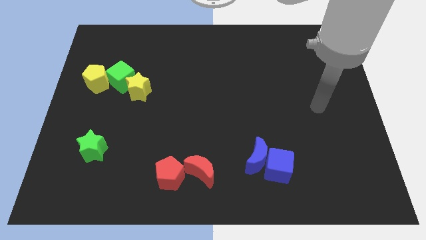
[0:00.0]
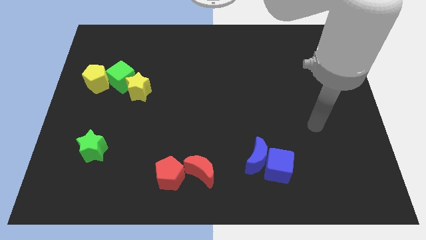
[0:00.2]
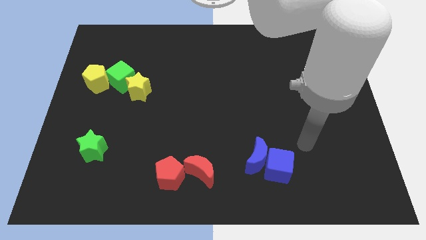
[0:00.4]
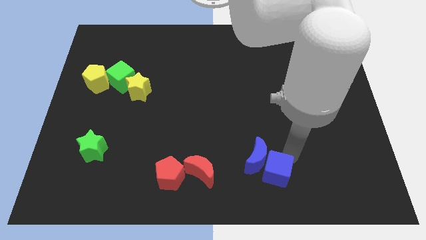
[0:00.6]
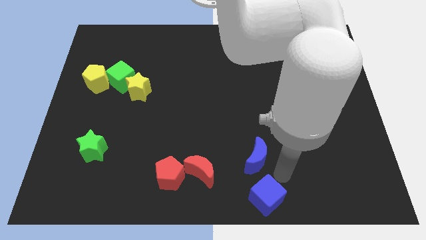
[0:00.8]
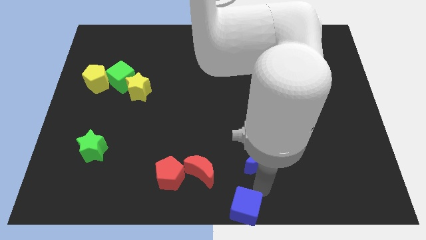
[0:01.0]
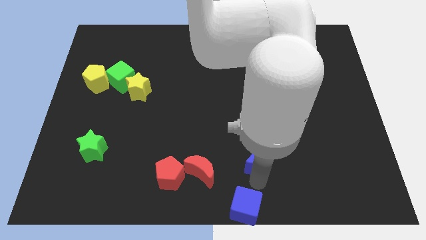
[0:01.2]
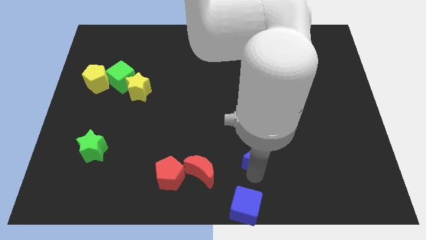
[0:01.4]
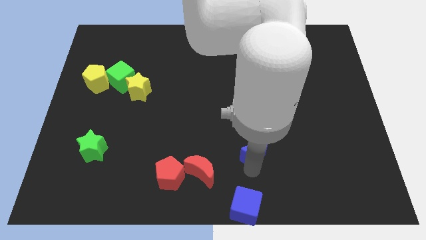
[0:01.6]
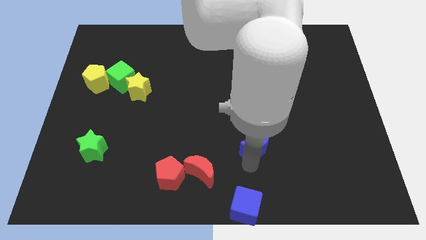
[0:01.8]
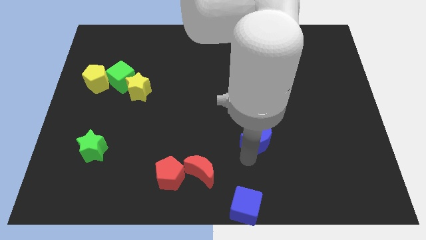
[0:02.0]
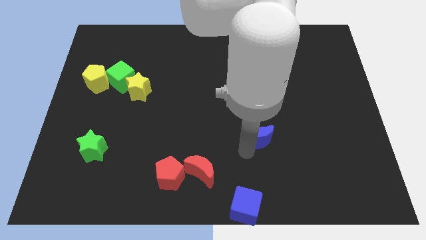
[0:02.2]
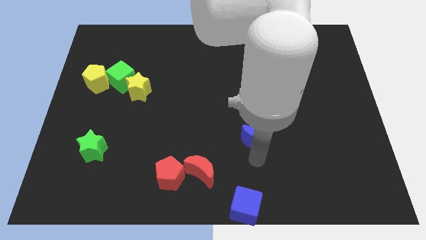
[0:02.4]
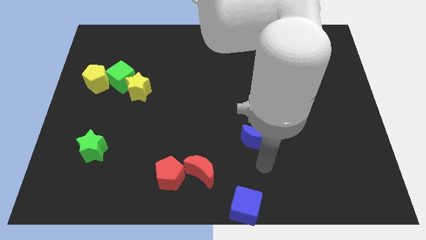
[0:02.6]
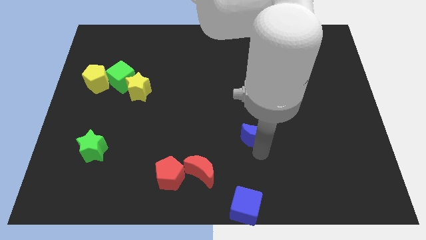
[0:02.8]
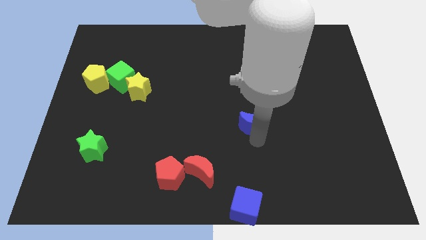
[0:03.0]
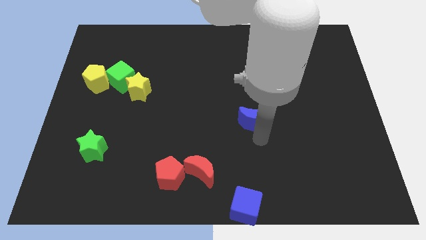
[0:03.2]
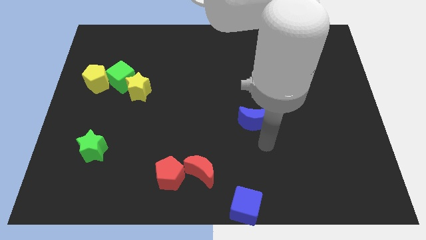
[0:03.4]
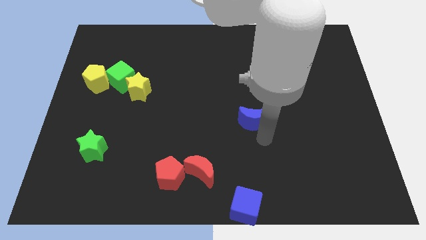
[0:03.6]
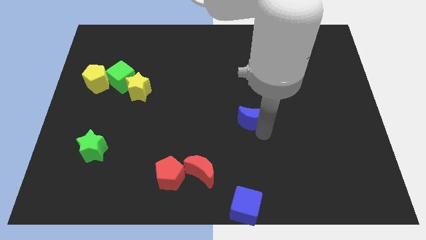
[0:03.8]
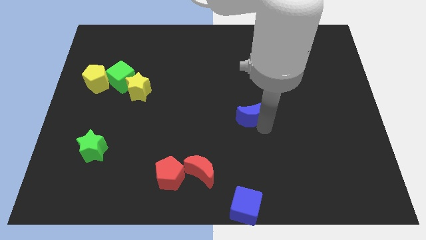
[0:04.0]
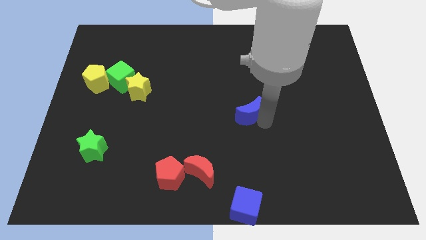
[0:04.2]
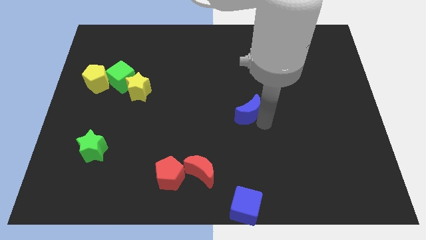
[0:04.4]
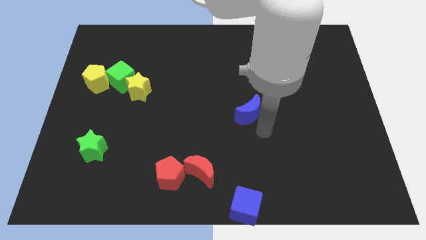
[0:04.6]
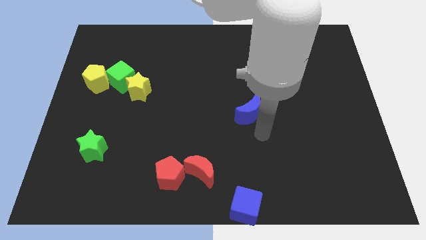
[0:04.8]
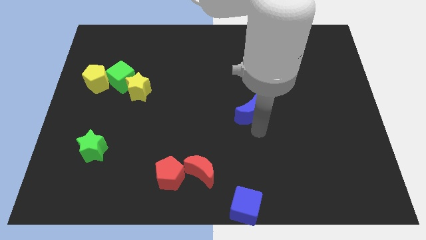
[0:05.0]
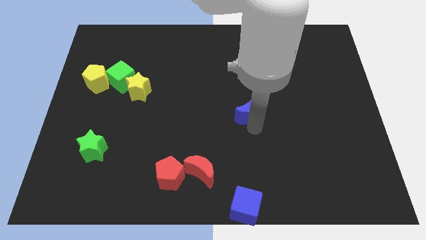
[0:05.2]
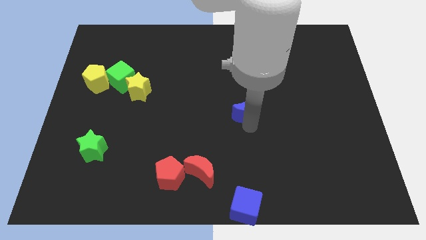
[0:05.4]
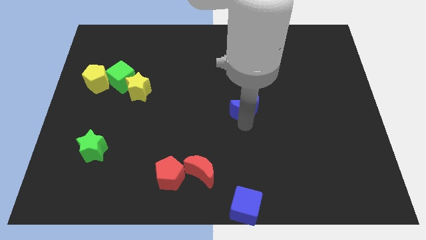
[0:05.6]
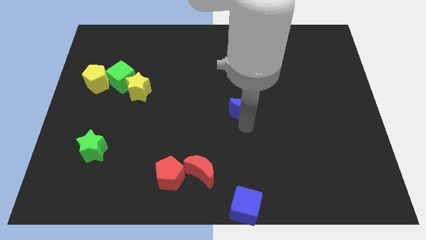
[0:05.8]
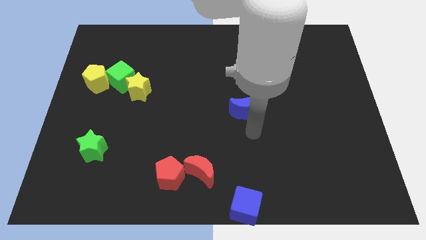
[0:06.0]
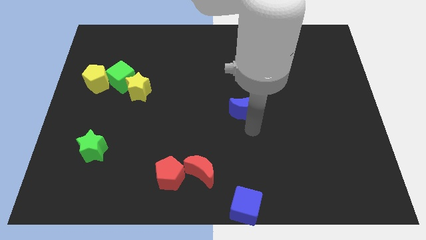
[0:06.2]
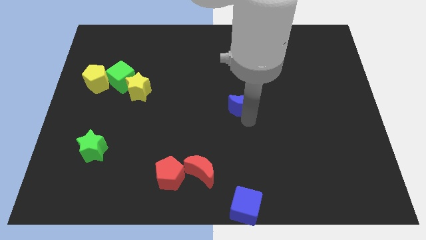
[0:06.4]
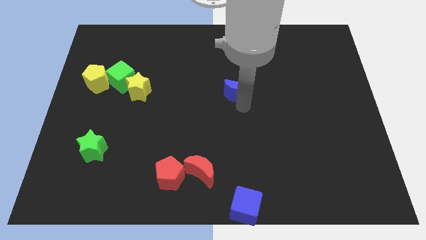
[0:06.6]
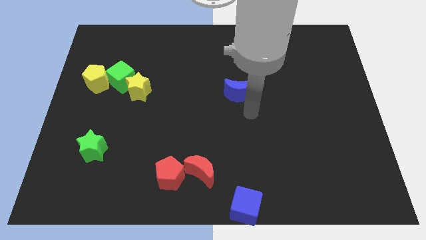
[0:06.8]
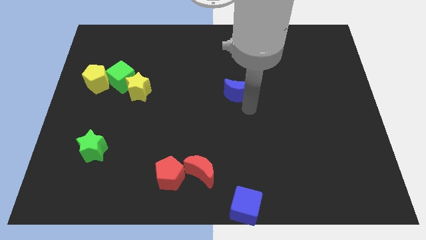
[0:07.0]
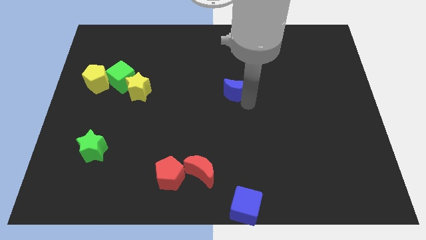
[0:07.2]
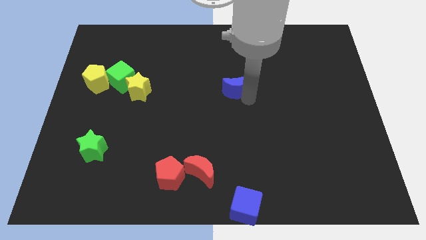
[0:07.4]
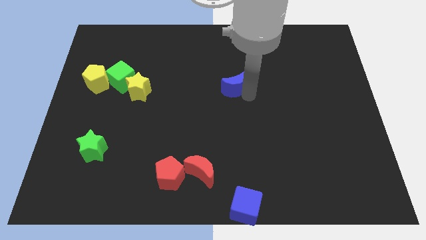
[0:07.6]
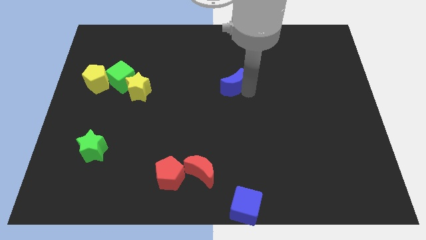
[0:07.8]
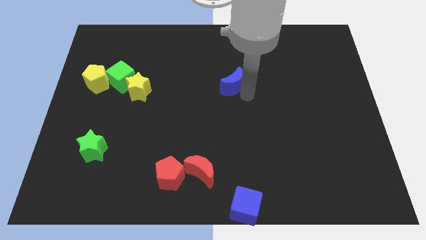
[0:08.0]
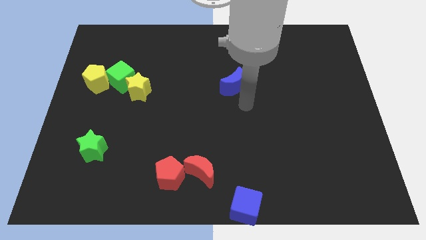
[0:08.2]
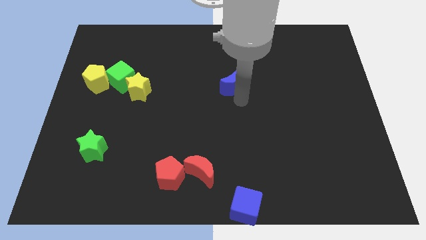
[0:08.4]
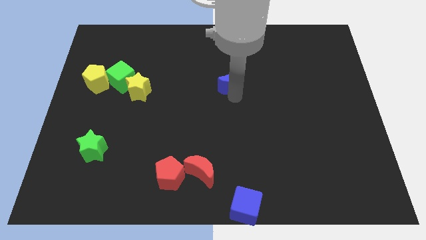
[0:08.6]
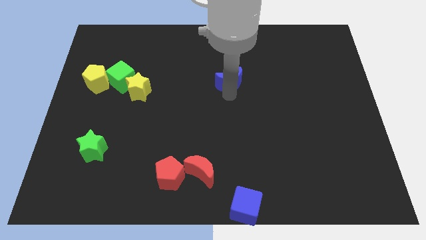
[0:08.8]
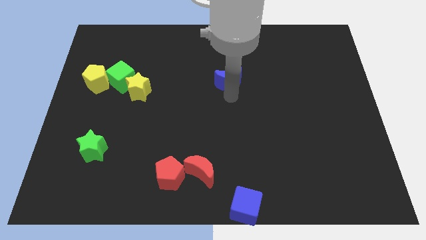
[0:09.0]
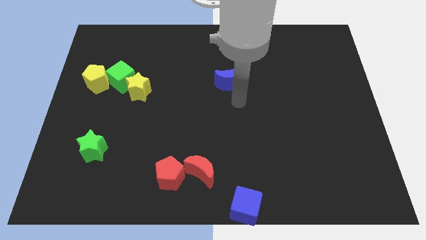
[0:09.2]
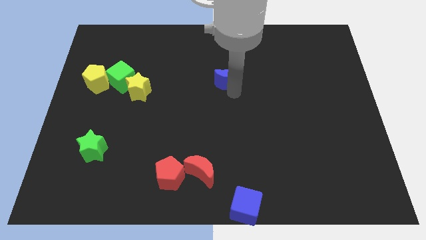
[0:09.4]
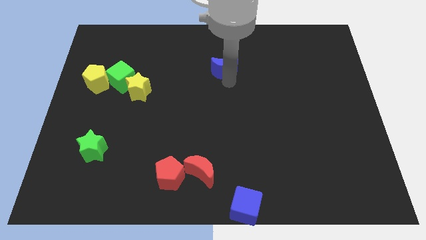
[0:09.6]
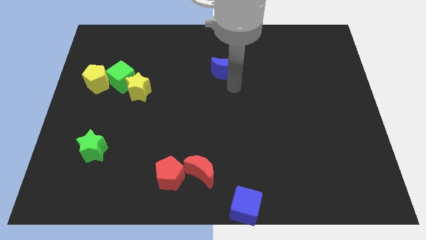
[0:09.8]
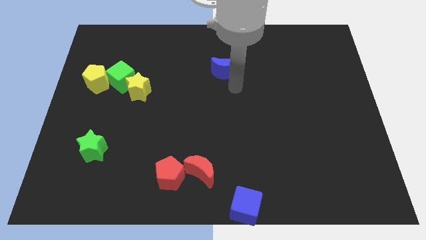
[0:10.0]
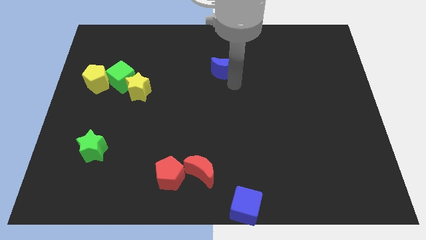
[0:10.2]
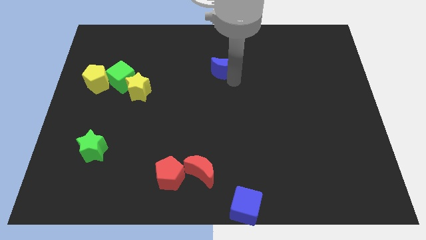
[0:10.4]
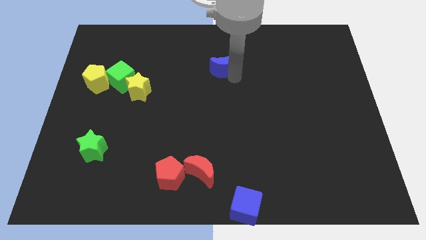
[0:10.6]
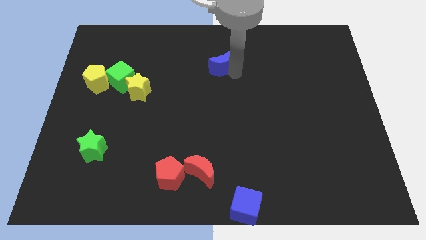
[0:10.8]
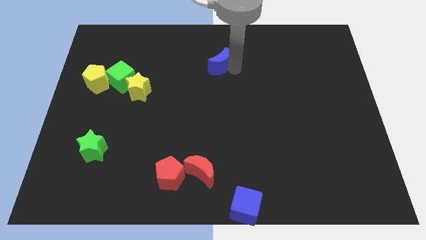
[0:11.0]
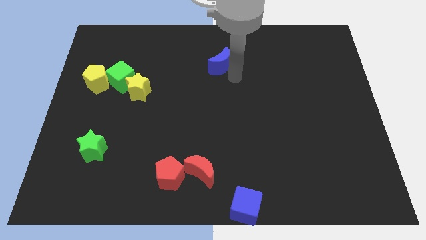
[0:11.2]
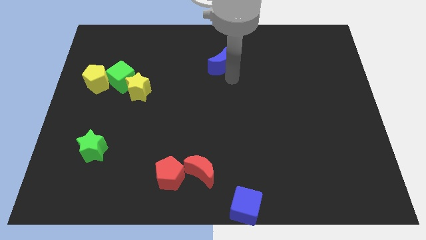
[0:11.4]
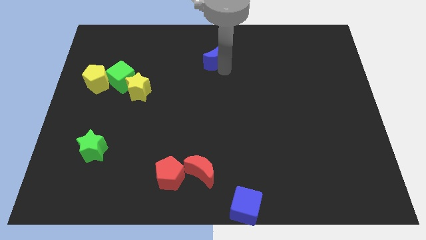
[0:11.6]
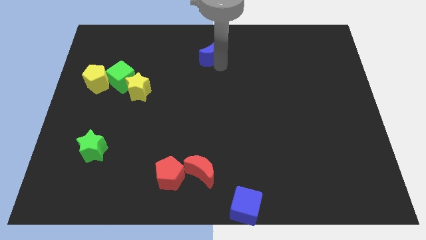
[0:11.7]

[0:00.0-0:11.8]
move the blue moon to the top
